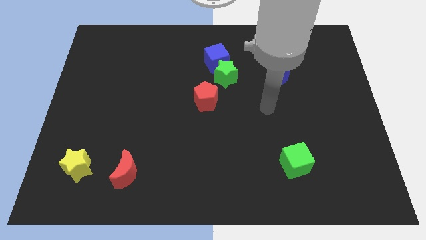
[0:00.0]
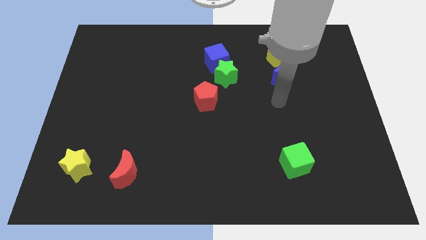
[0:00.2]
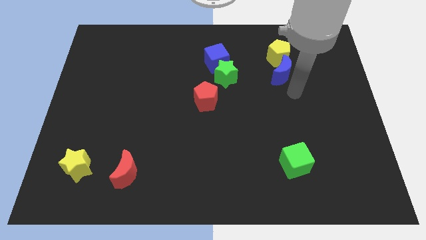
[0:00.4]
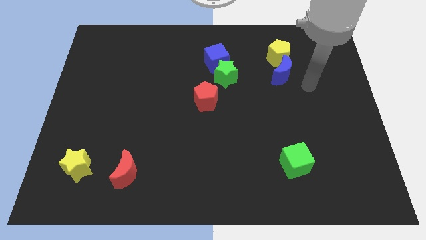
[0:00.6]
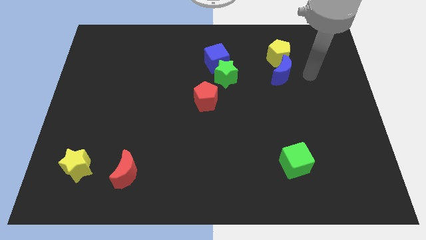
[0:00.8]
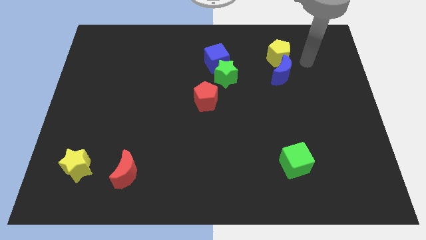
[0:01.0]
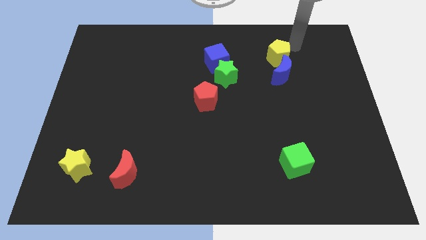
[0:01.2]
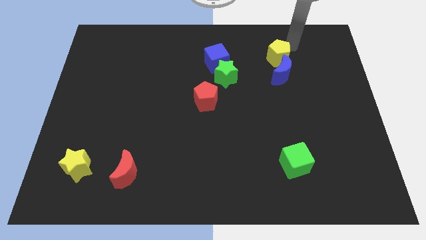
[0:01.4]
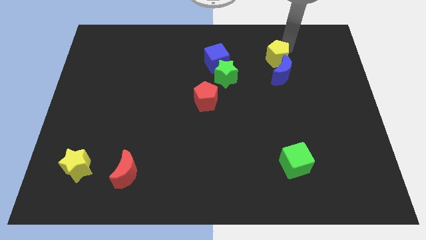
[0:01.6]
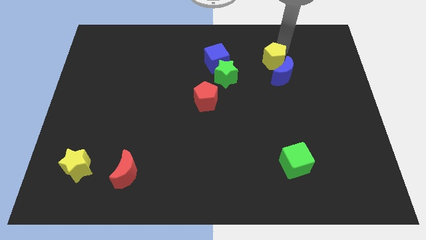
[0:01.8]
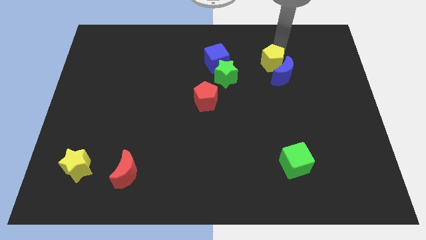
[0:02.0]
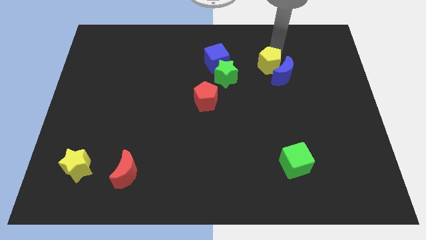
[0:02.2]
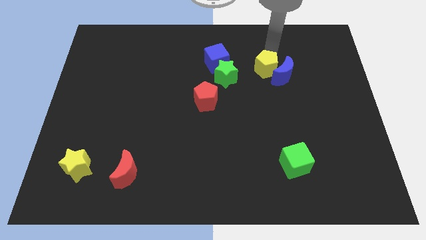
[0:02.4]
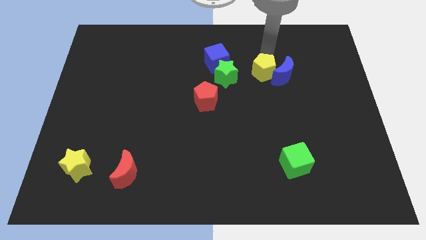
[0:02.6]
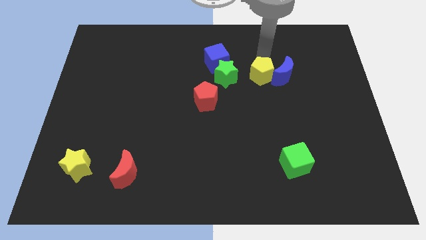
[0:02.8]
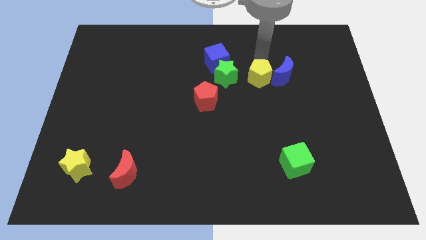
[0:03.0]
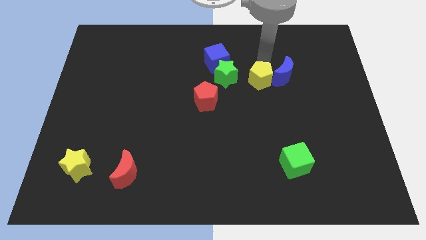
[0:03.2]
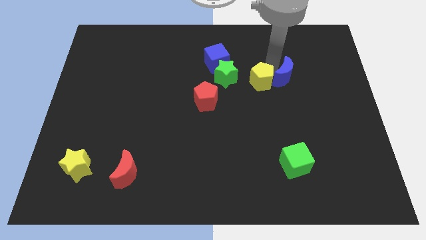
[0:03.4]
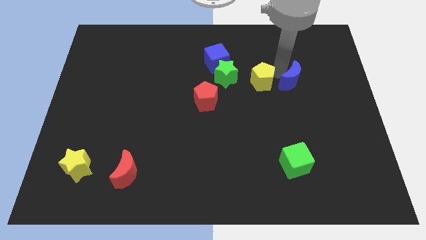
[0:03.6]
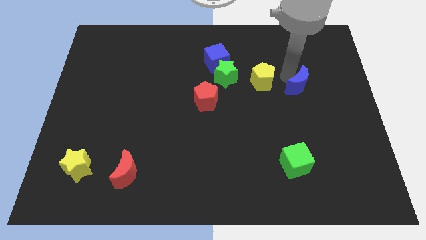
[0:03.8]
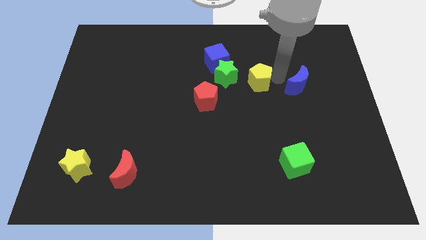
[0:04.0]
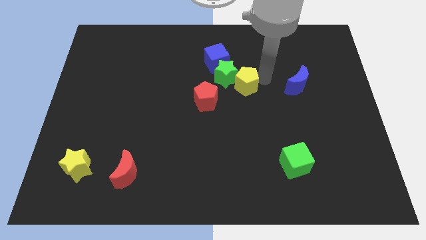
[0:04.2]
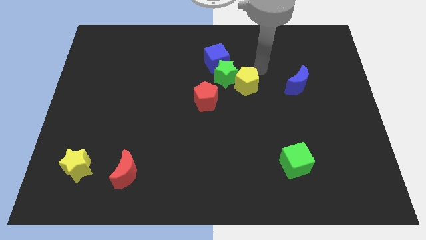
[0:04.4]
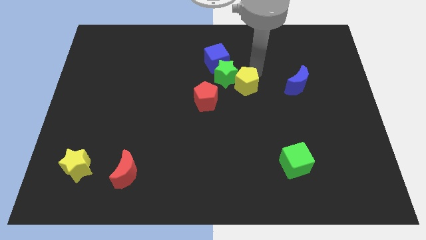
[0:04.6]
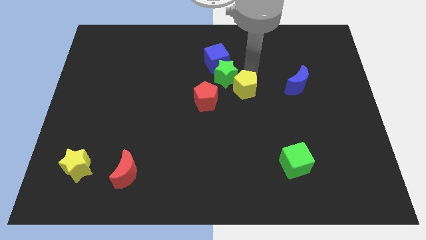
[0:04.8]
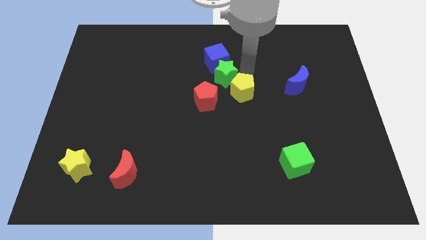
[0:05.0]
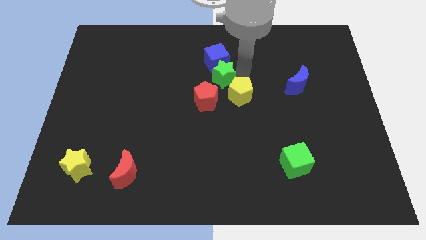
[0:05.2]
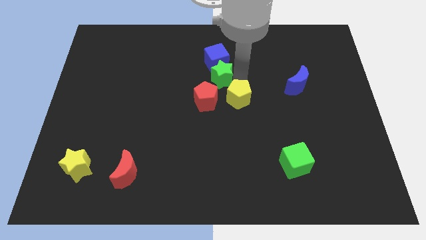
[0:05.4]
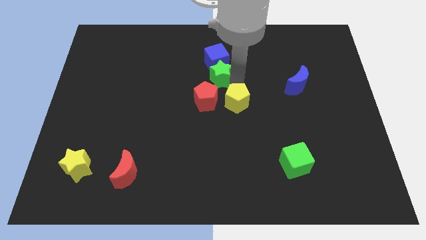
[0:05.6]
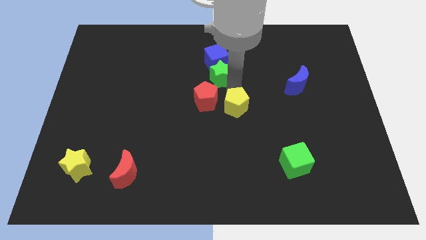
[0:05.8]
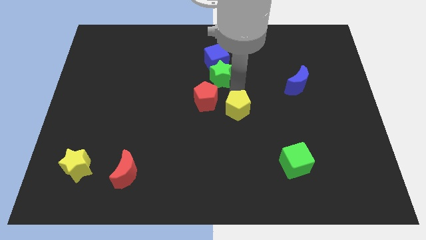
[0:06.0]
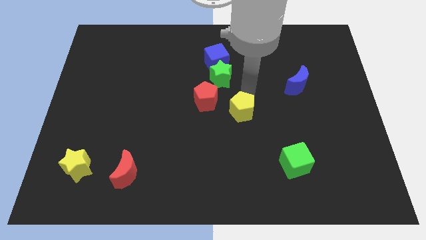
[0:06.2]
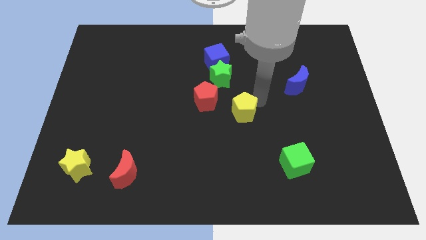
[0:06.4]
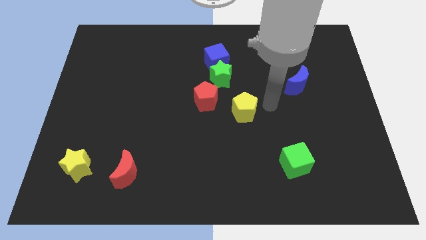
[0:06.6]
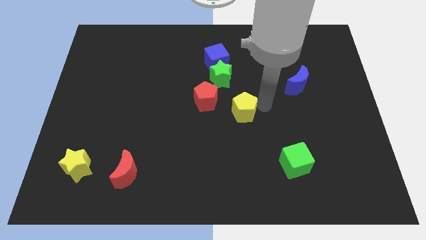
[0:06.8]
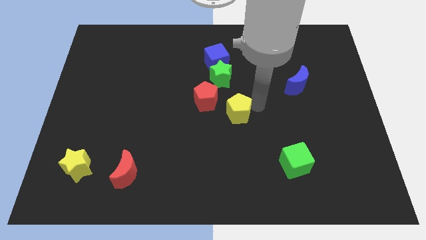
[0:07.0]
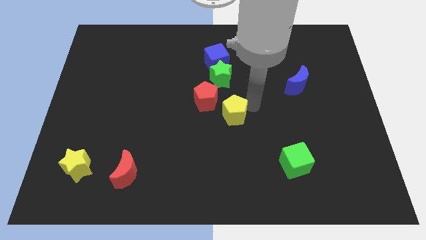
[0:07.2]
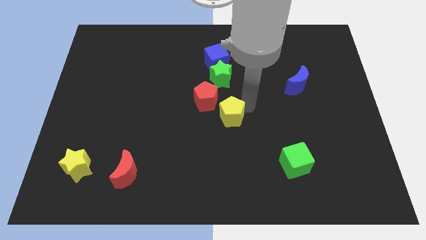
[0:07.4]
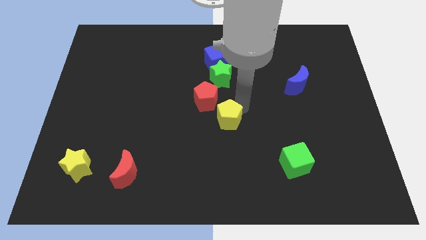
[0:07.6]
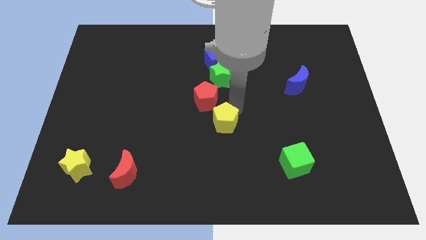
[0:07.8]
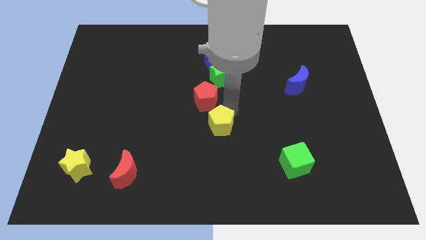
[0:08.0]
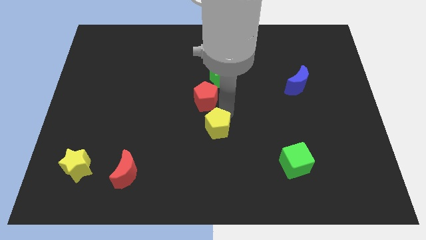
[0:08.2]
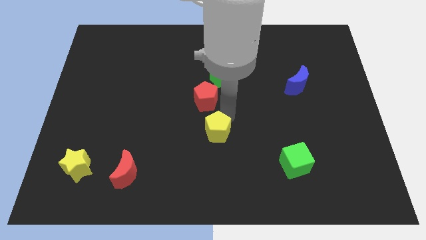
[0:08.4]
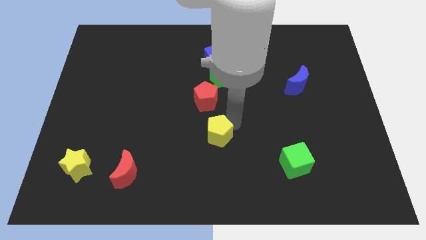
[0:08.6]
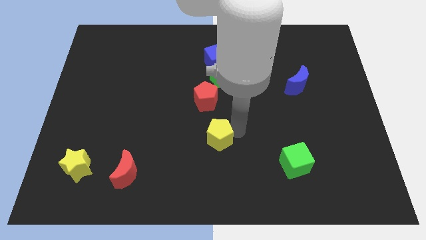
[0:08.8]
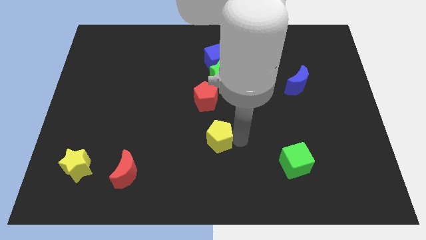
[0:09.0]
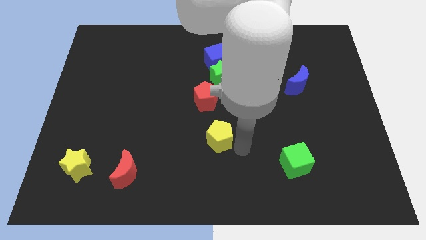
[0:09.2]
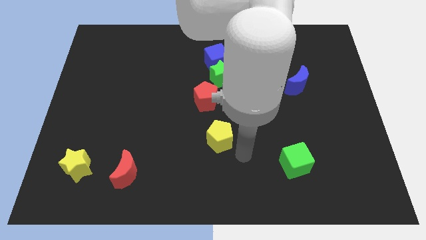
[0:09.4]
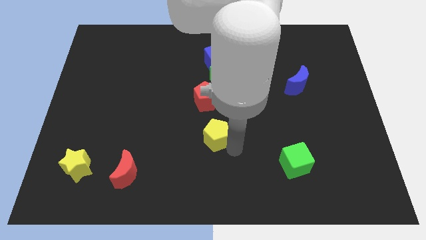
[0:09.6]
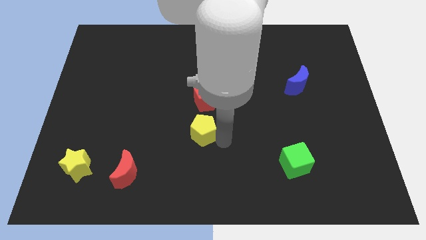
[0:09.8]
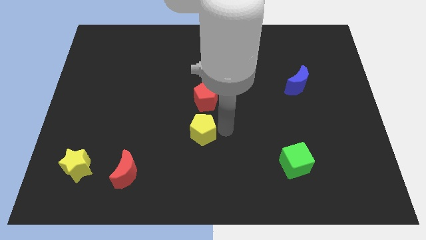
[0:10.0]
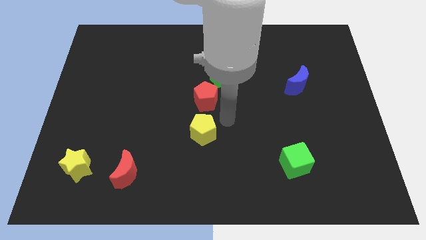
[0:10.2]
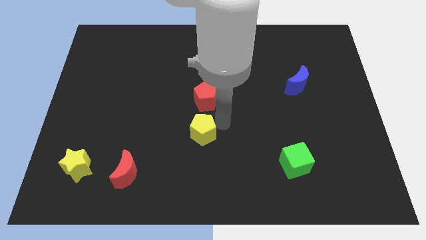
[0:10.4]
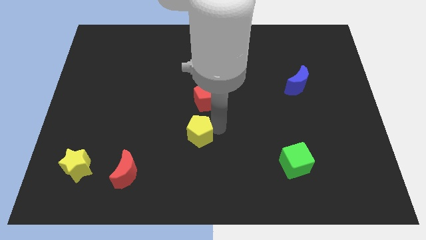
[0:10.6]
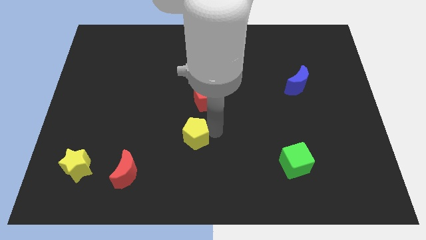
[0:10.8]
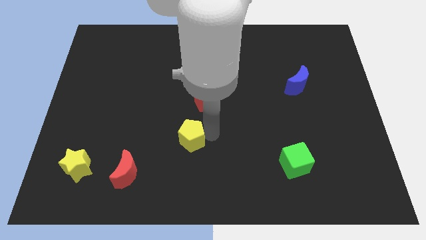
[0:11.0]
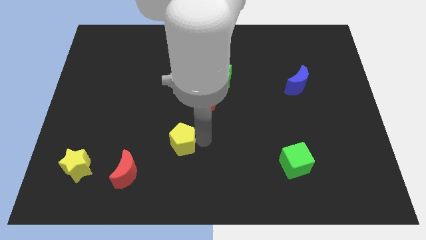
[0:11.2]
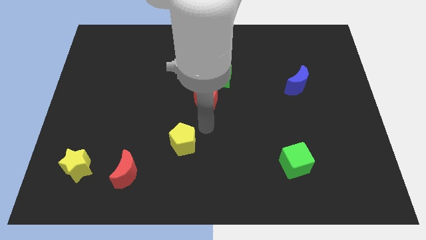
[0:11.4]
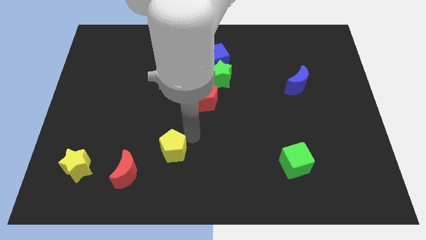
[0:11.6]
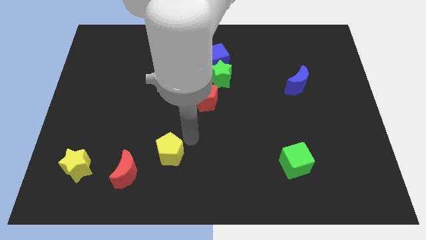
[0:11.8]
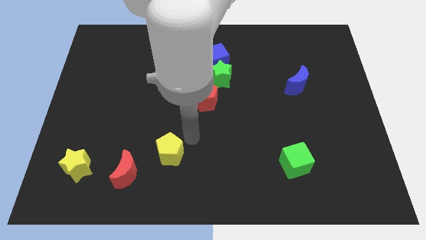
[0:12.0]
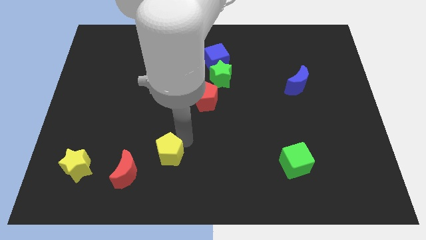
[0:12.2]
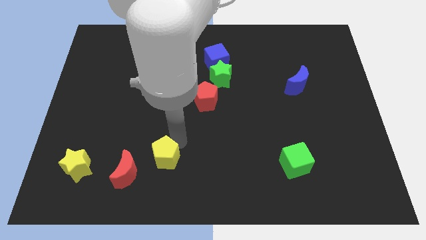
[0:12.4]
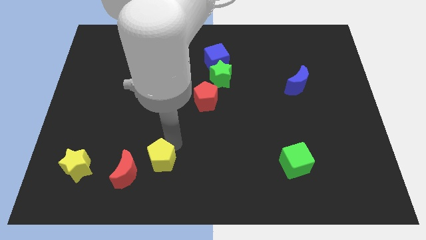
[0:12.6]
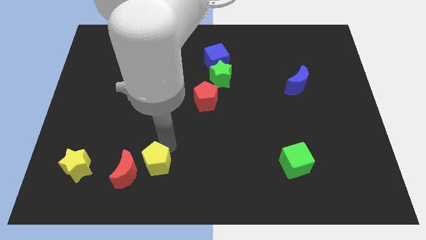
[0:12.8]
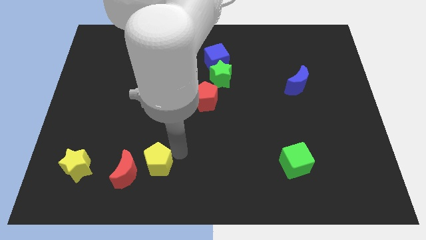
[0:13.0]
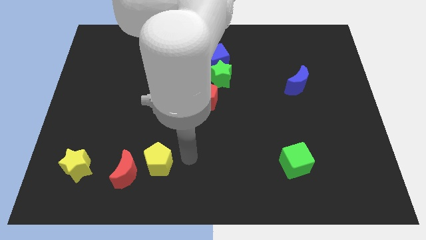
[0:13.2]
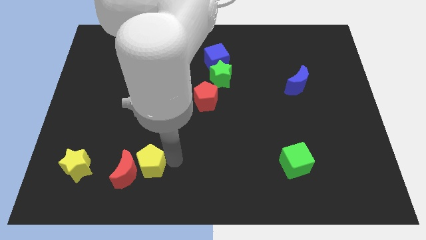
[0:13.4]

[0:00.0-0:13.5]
move the yellow pentagon to the right side of the yellow star
